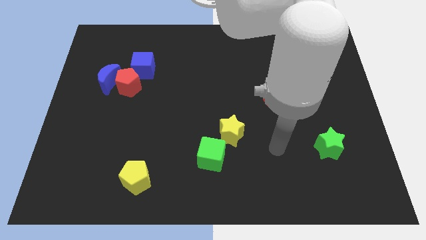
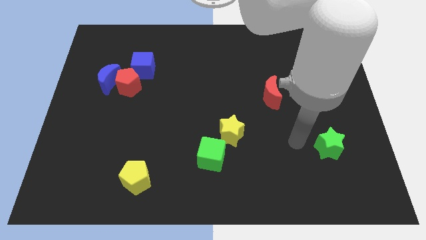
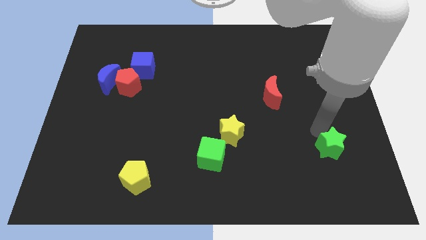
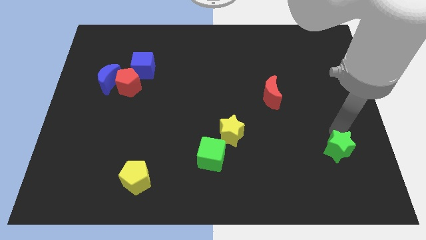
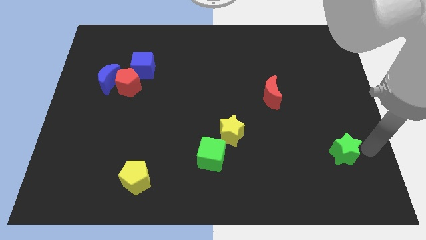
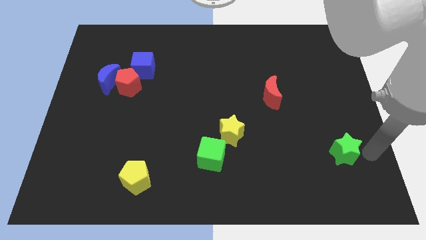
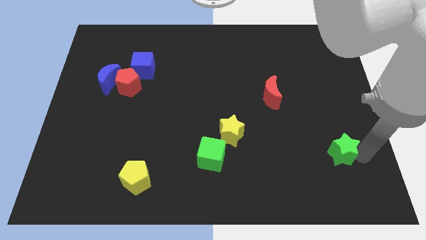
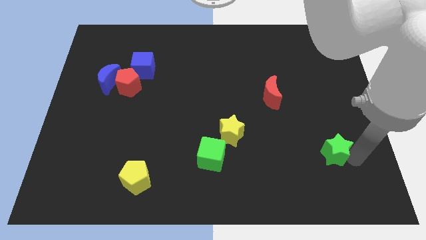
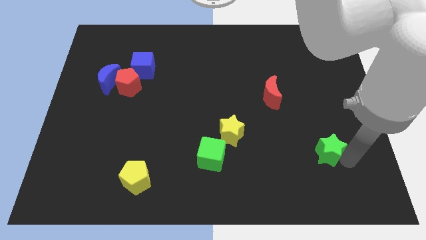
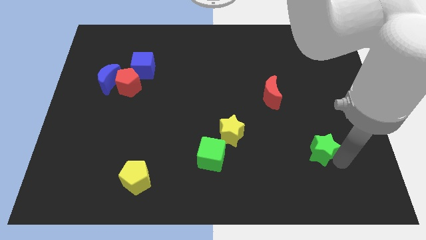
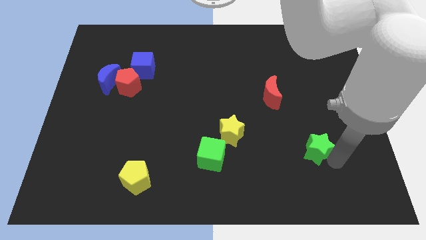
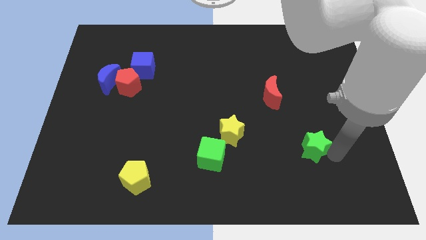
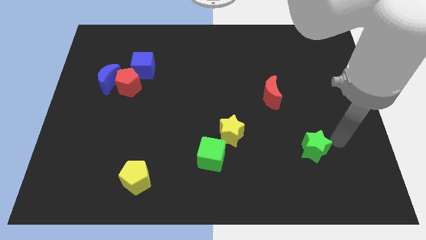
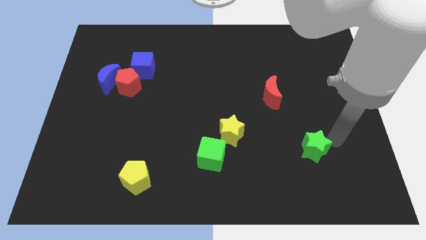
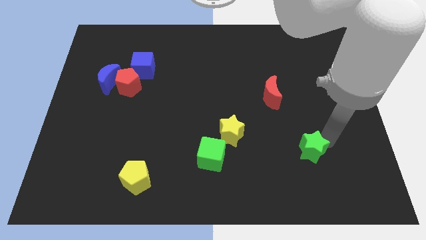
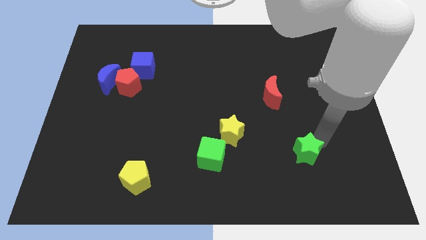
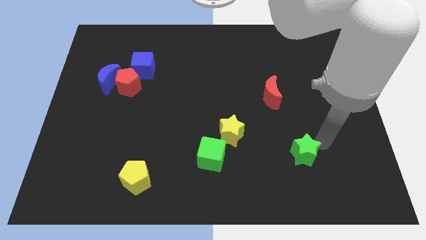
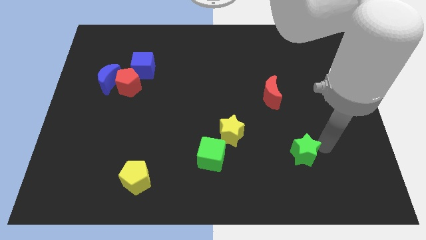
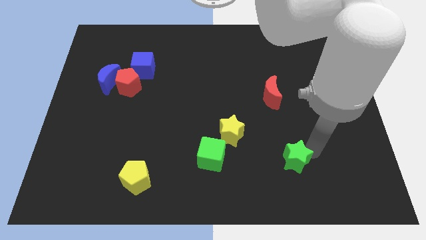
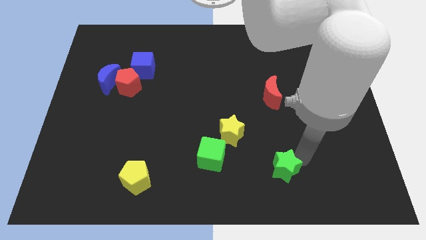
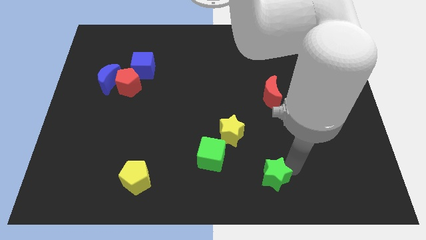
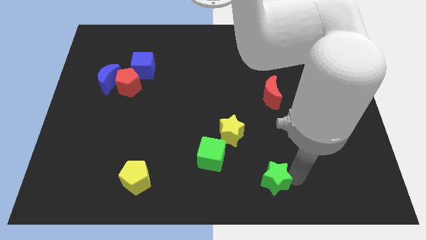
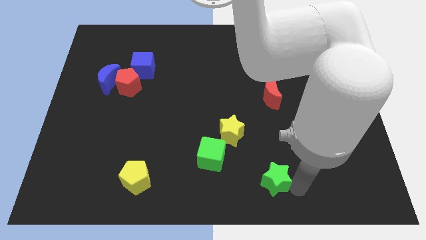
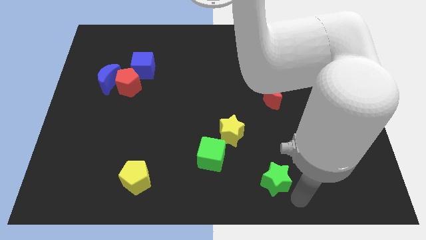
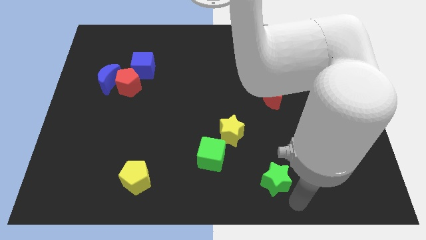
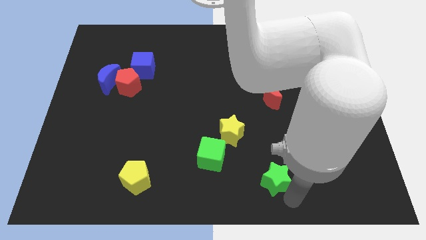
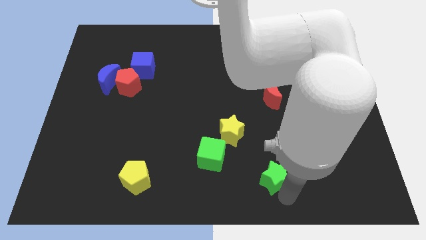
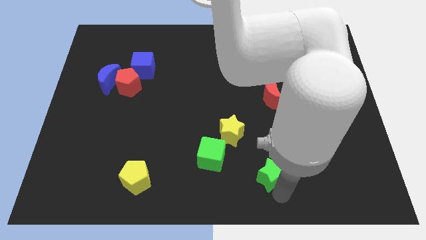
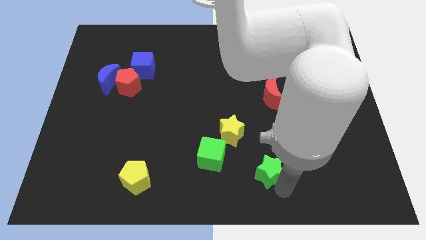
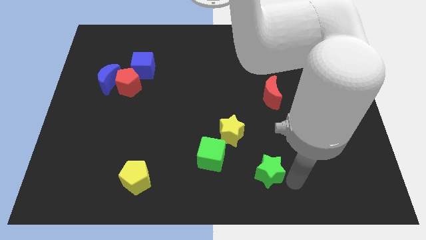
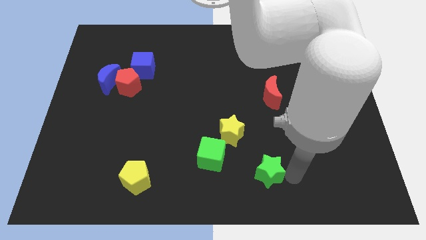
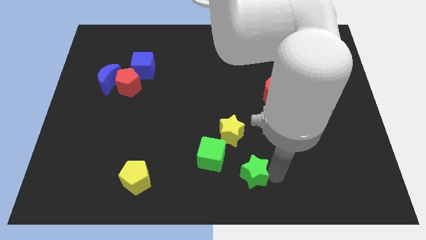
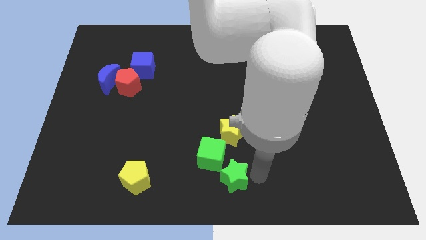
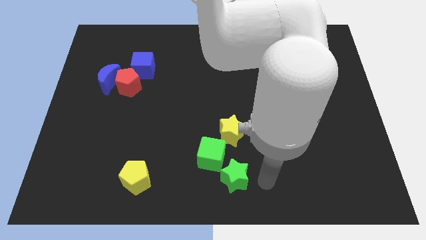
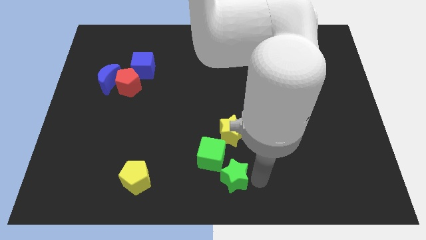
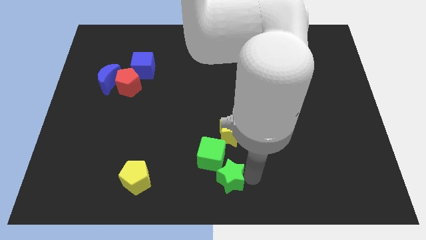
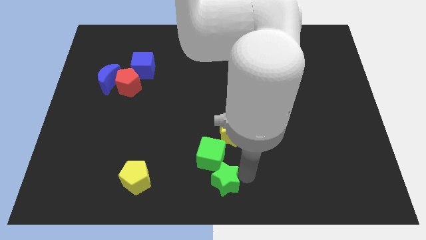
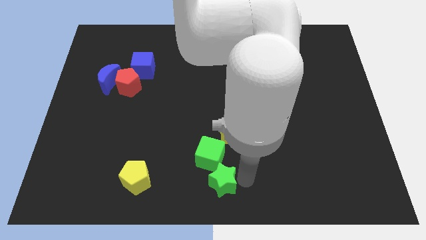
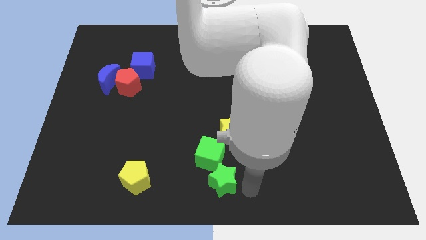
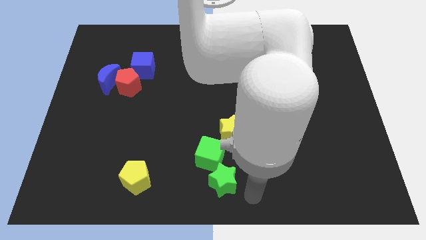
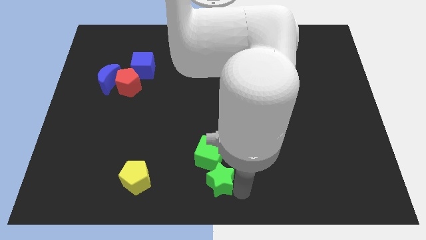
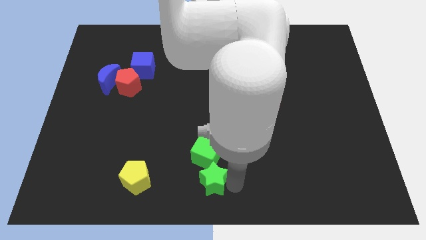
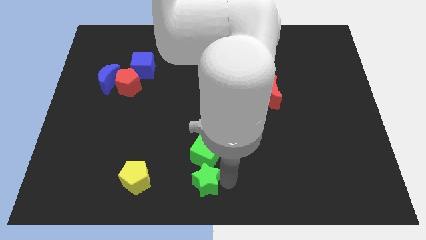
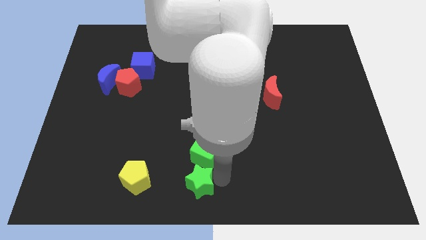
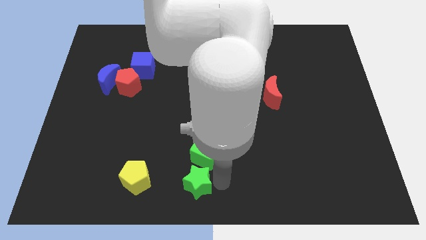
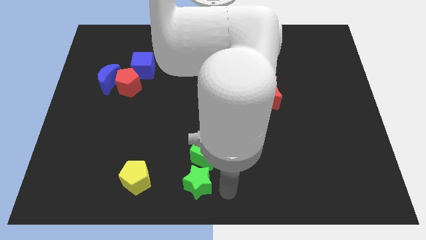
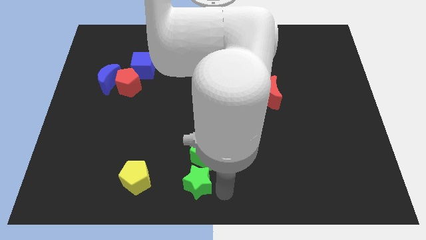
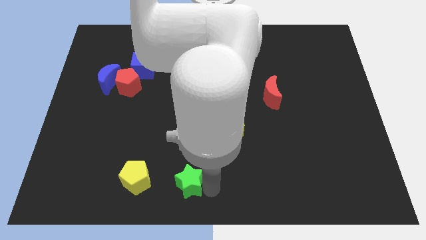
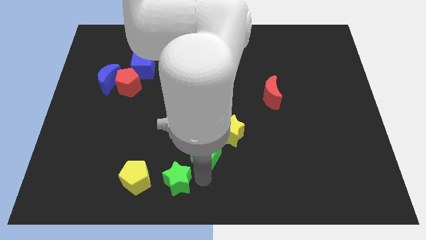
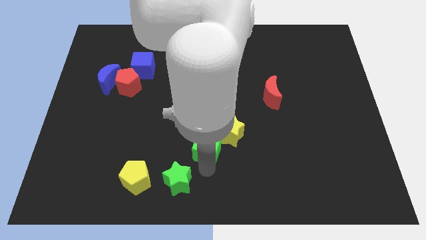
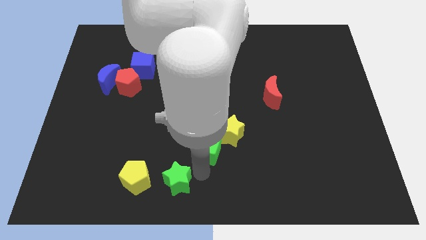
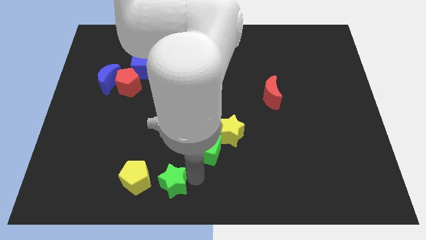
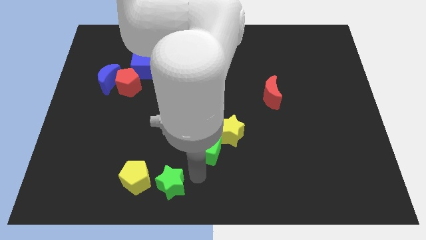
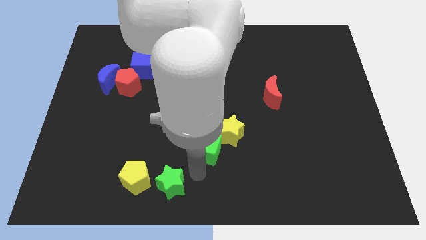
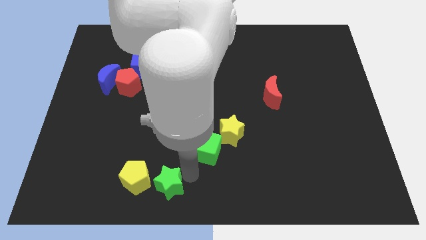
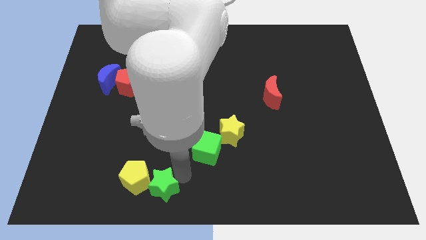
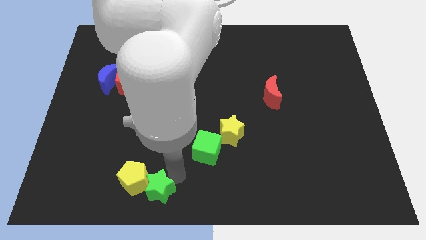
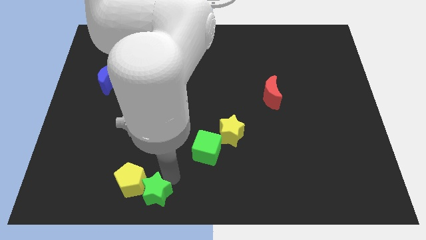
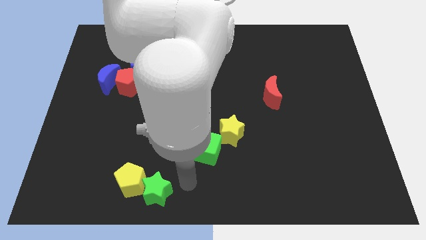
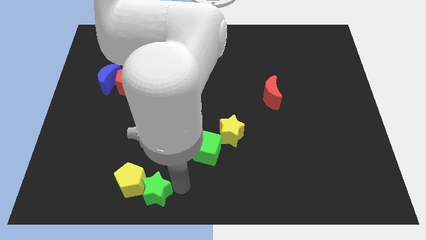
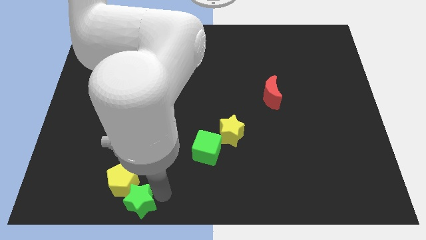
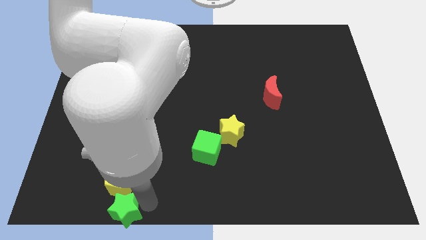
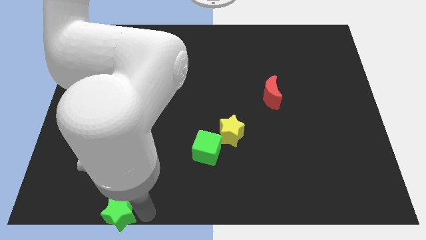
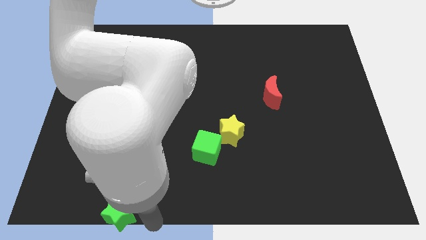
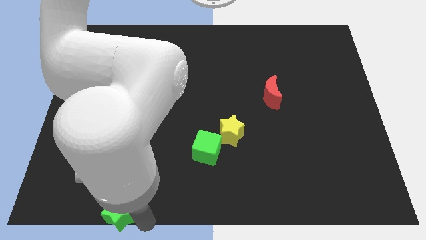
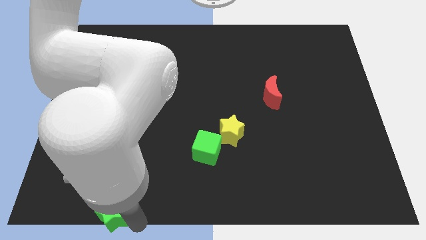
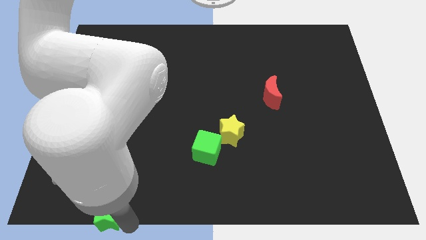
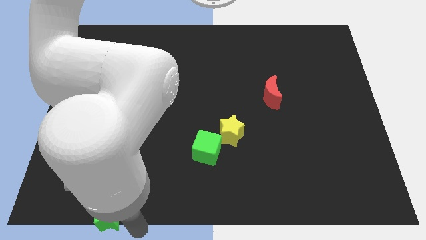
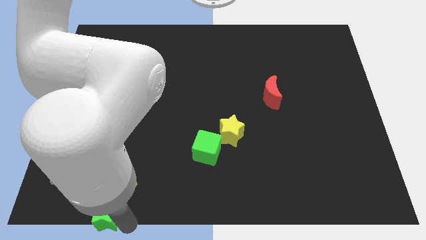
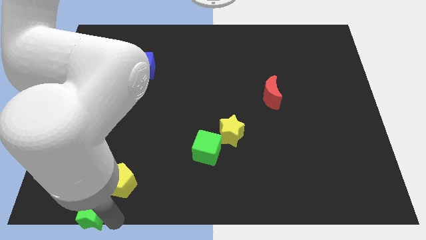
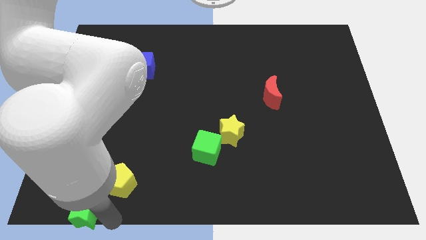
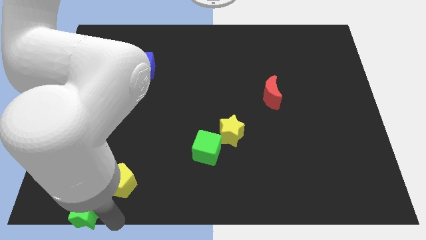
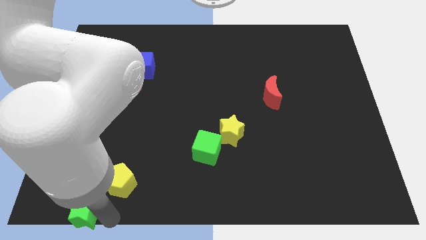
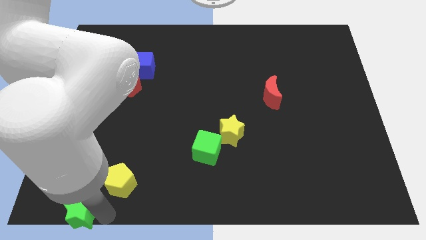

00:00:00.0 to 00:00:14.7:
slide the green star to the bottom left of the board
